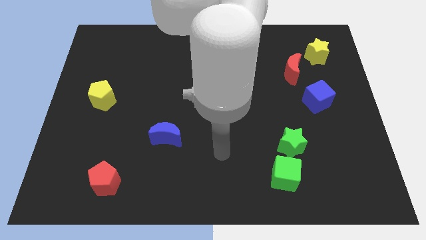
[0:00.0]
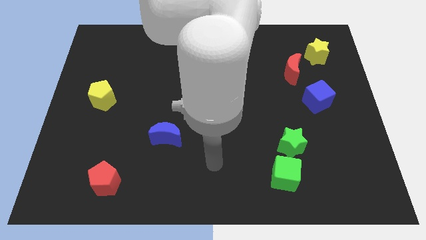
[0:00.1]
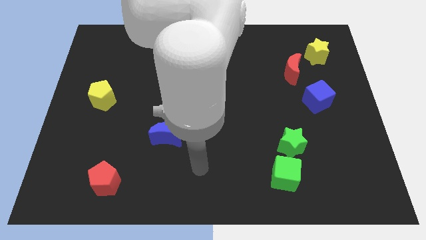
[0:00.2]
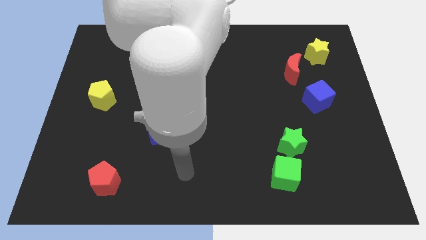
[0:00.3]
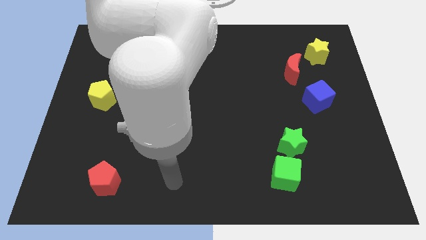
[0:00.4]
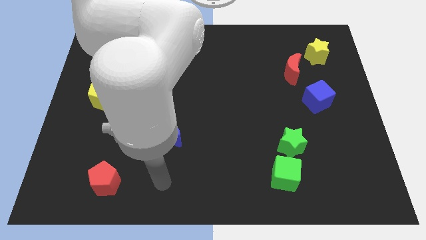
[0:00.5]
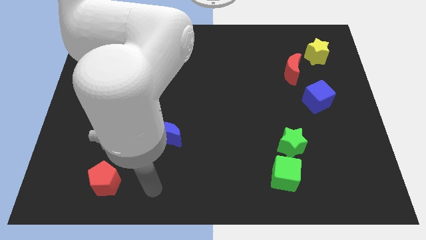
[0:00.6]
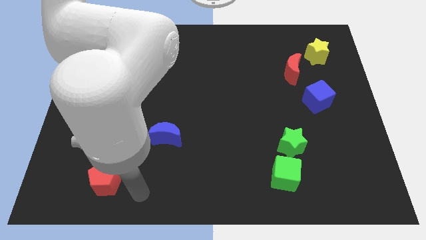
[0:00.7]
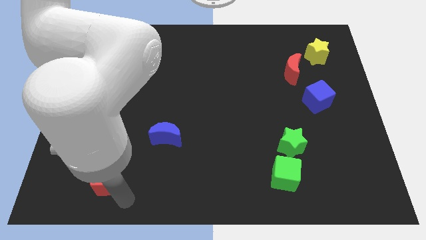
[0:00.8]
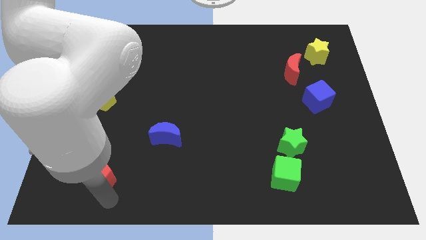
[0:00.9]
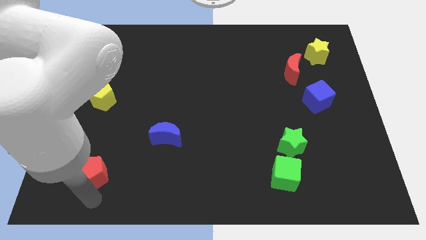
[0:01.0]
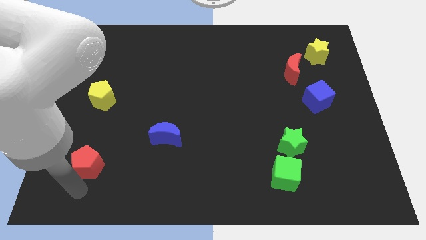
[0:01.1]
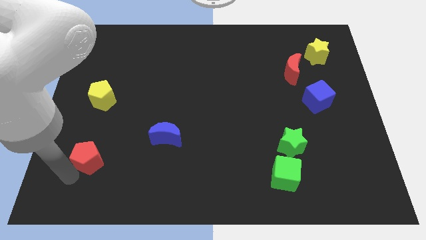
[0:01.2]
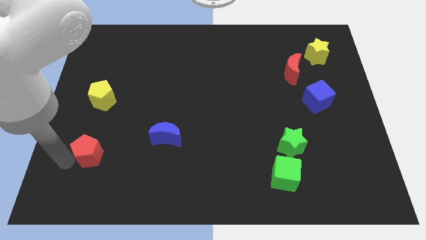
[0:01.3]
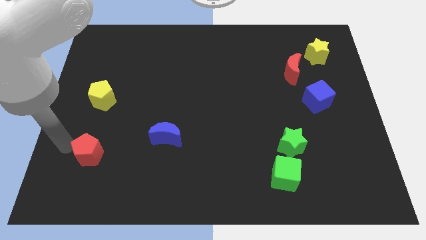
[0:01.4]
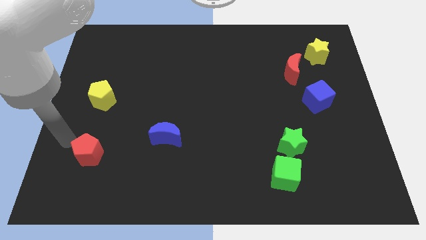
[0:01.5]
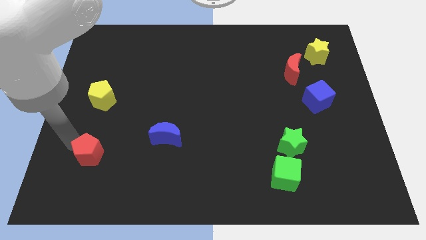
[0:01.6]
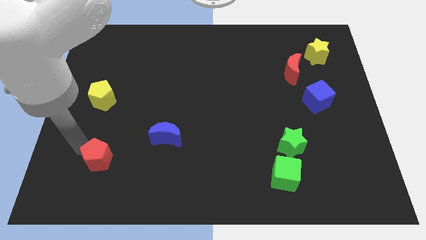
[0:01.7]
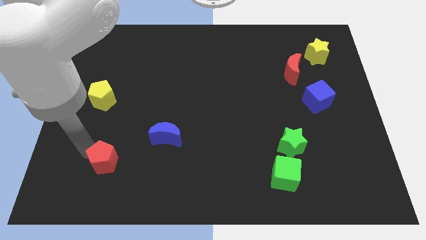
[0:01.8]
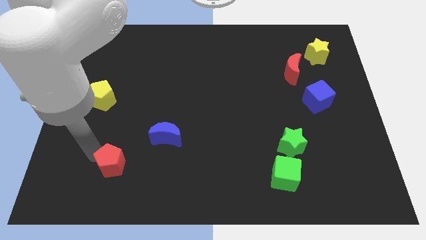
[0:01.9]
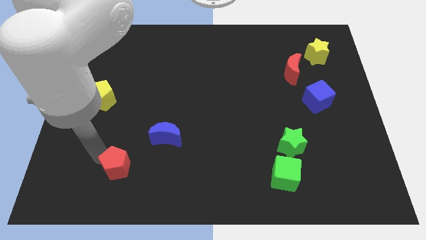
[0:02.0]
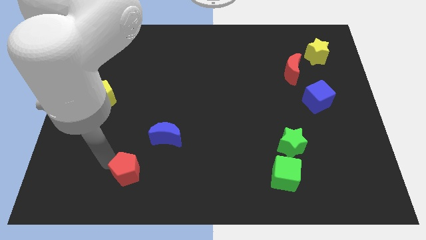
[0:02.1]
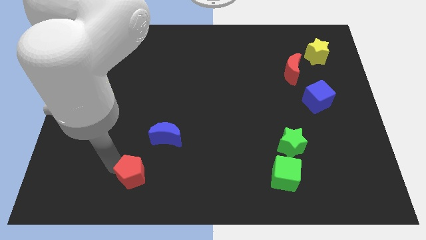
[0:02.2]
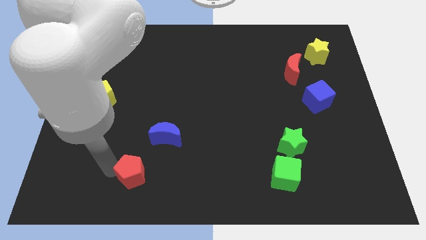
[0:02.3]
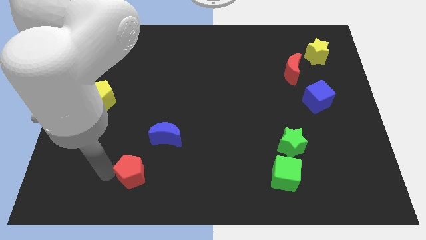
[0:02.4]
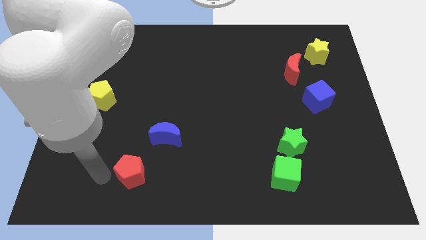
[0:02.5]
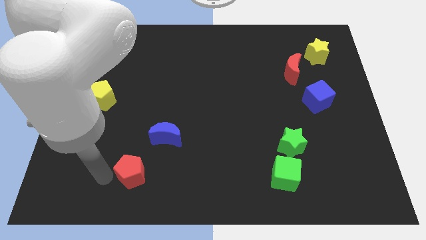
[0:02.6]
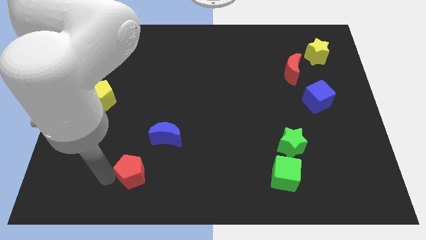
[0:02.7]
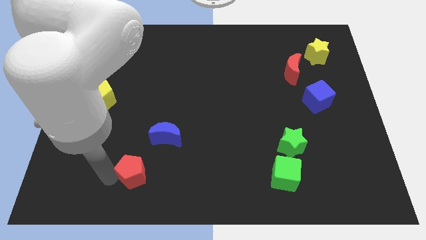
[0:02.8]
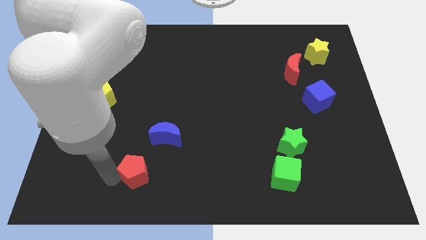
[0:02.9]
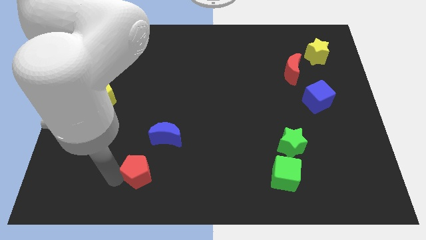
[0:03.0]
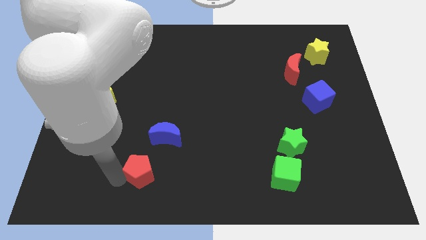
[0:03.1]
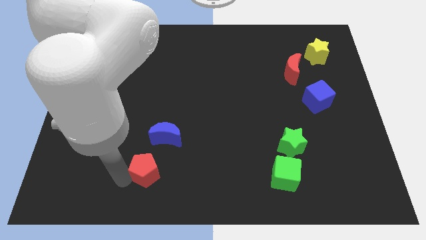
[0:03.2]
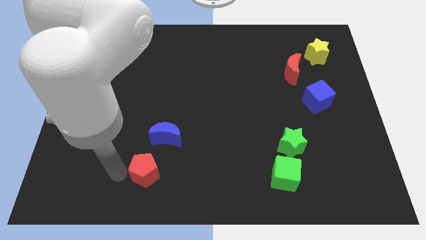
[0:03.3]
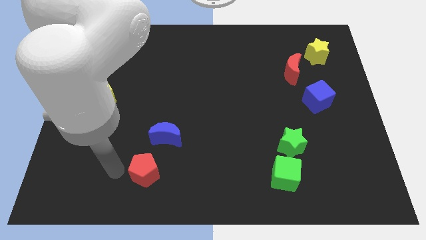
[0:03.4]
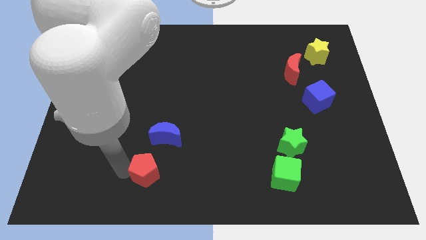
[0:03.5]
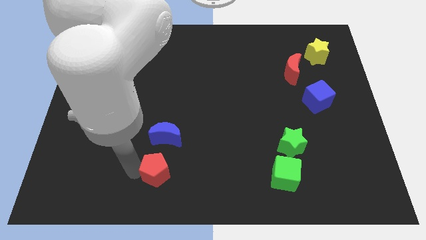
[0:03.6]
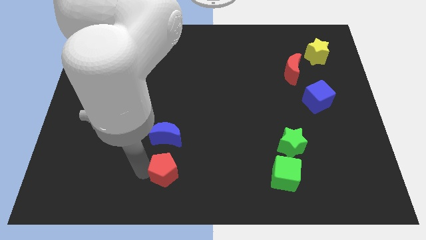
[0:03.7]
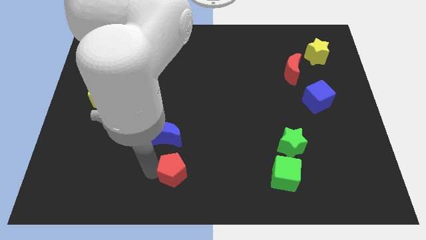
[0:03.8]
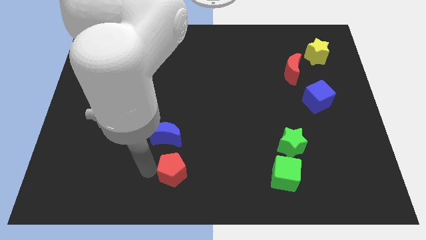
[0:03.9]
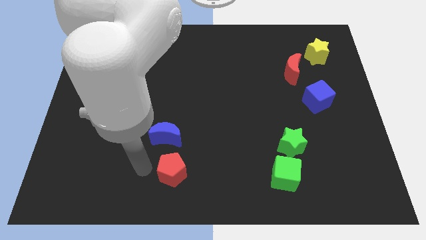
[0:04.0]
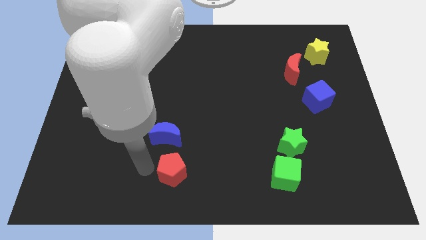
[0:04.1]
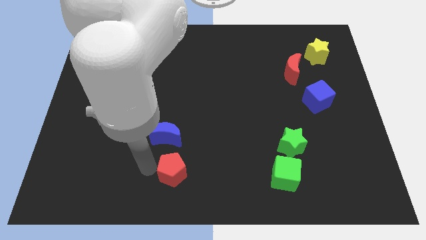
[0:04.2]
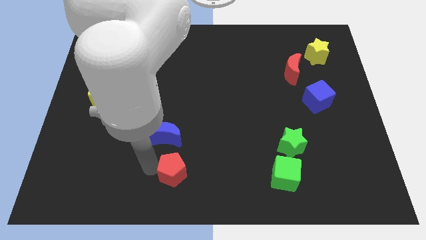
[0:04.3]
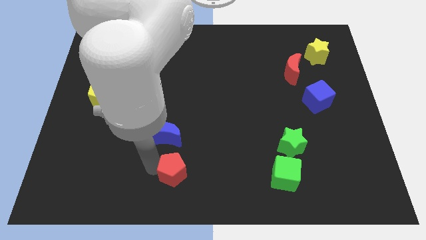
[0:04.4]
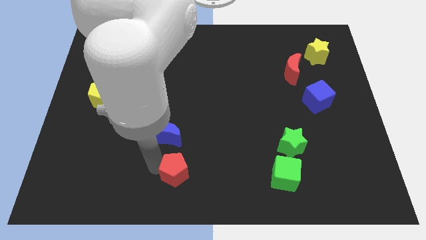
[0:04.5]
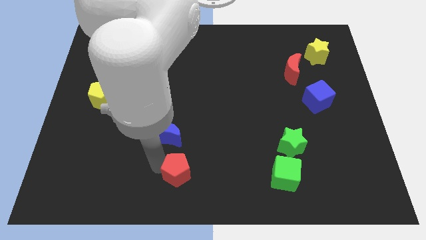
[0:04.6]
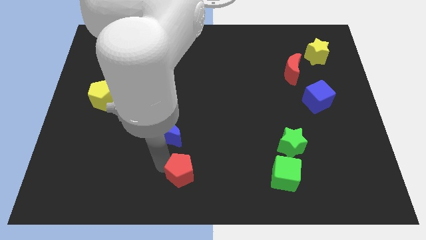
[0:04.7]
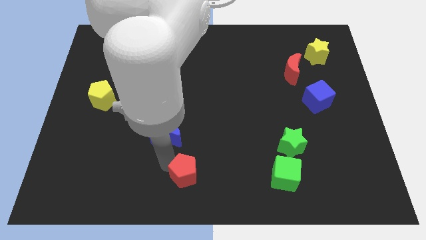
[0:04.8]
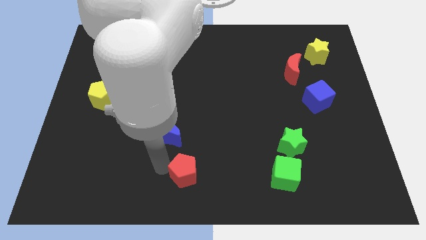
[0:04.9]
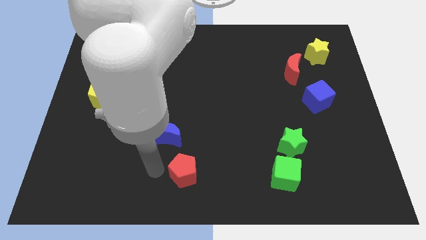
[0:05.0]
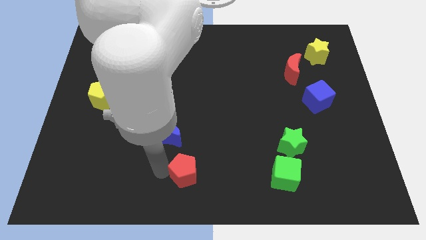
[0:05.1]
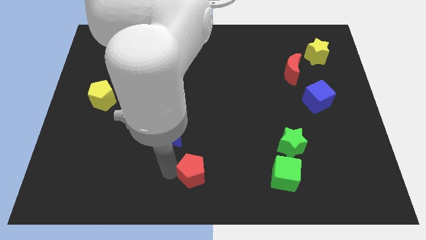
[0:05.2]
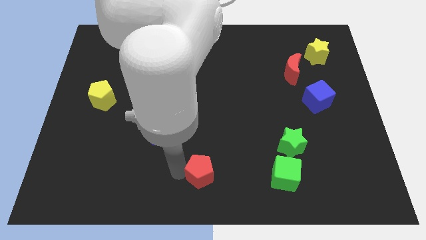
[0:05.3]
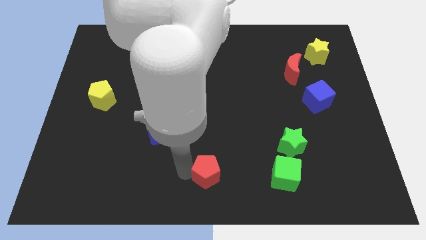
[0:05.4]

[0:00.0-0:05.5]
move the red pentagon to the right

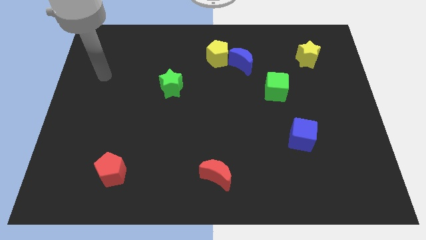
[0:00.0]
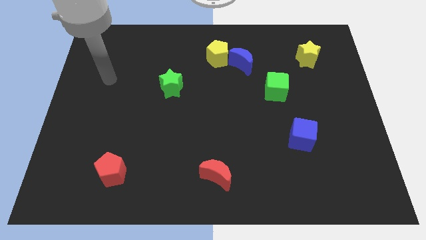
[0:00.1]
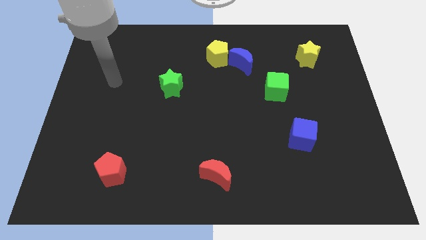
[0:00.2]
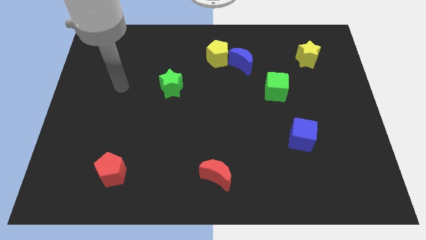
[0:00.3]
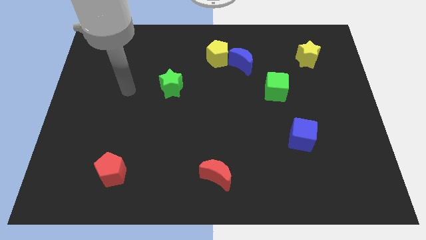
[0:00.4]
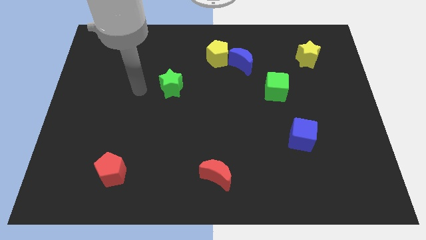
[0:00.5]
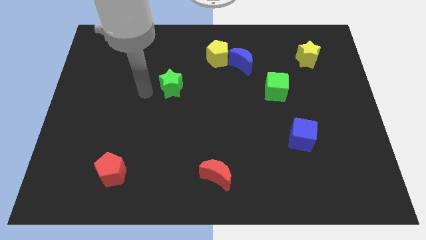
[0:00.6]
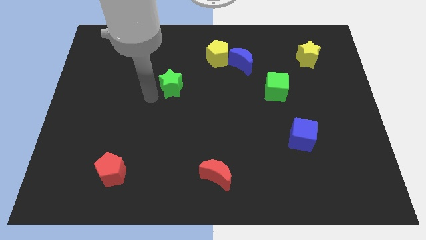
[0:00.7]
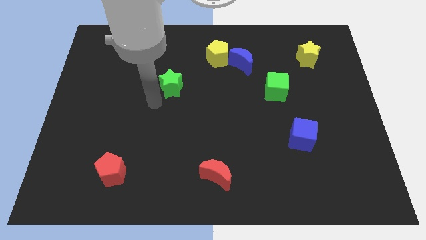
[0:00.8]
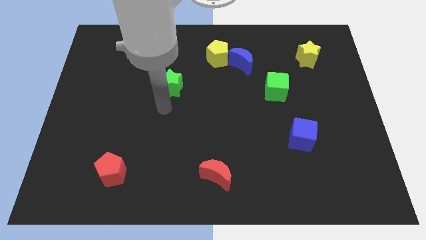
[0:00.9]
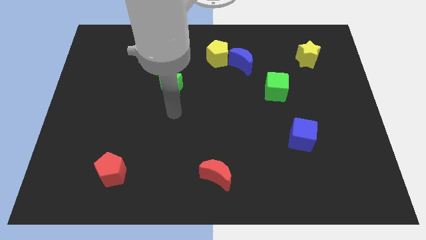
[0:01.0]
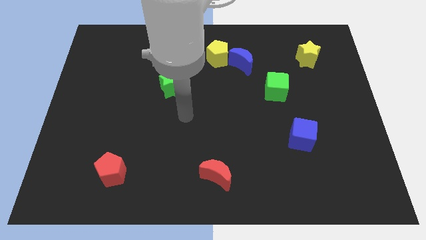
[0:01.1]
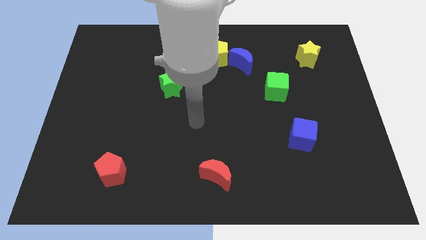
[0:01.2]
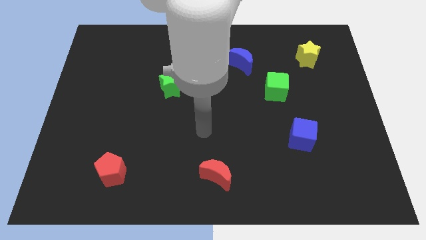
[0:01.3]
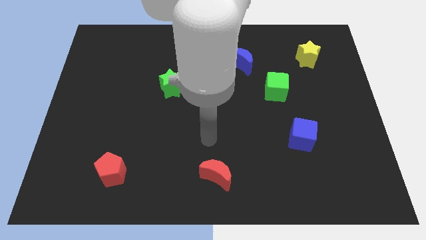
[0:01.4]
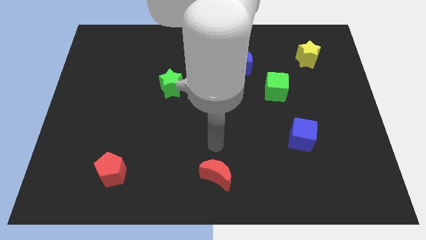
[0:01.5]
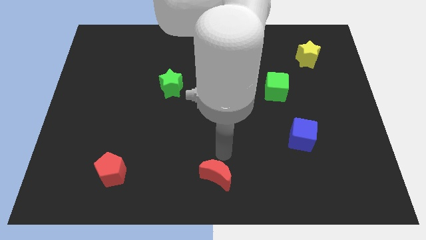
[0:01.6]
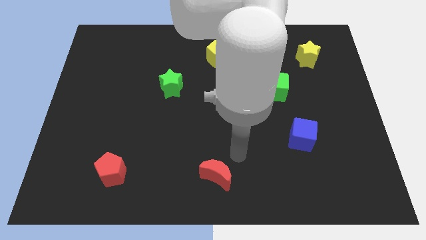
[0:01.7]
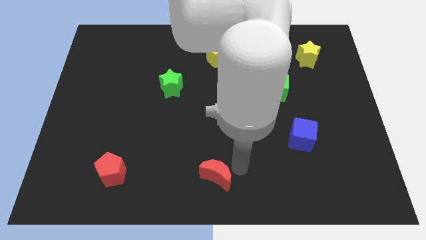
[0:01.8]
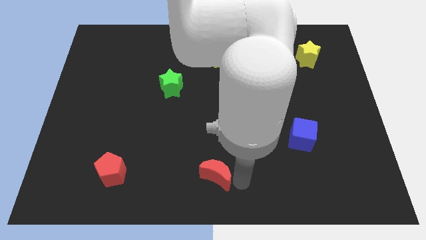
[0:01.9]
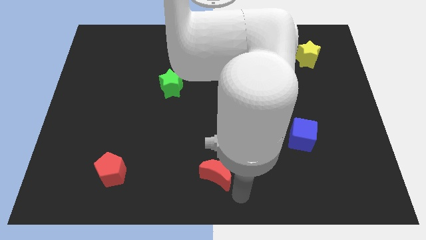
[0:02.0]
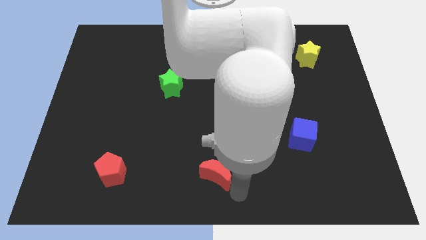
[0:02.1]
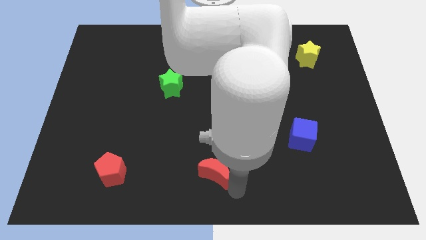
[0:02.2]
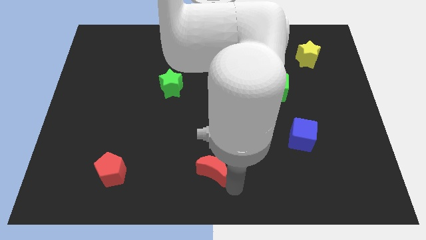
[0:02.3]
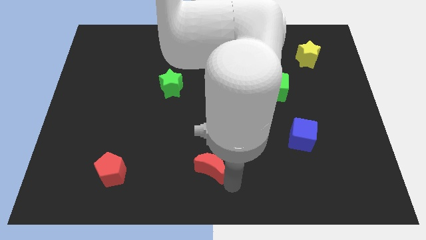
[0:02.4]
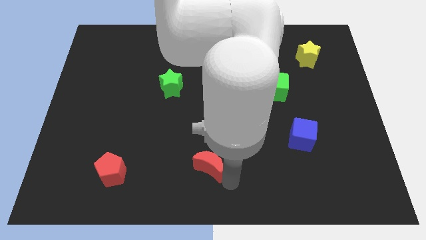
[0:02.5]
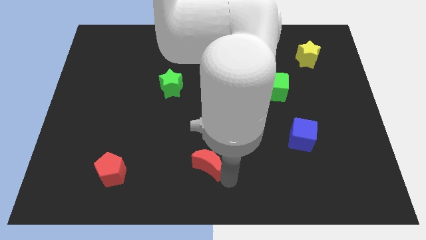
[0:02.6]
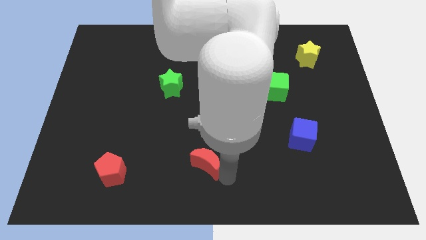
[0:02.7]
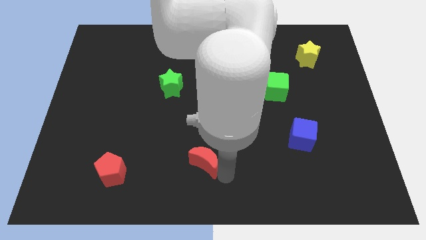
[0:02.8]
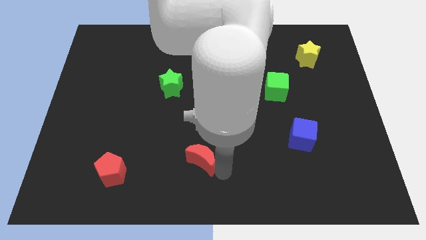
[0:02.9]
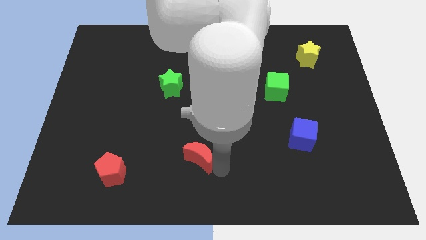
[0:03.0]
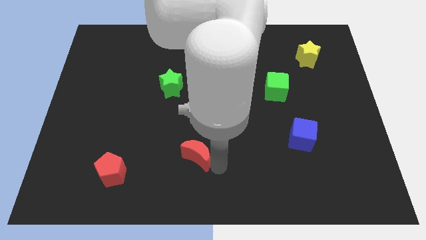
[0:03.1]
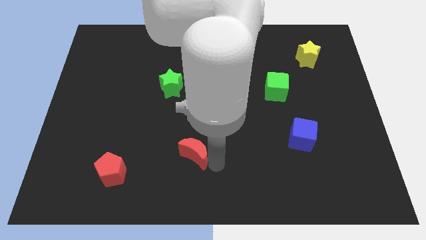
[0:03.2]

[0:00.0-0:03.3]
push the red moon a bit upwards and left
